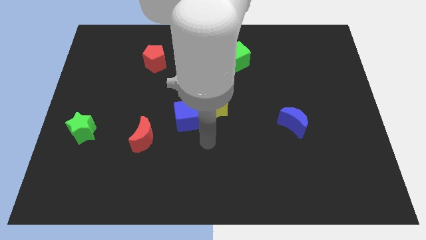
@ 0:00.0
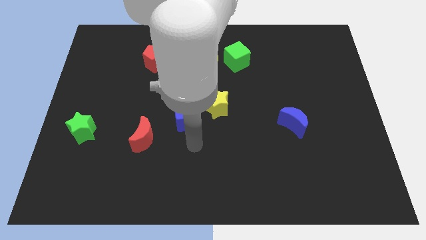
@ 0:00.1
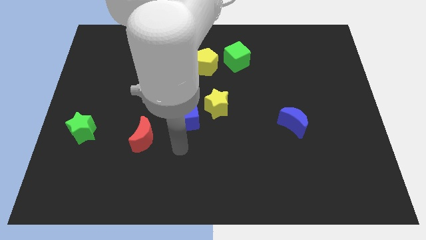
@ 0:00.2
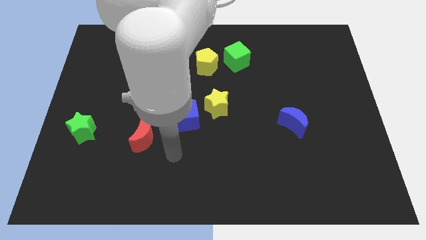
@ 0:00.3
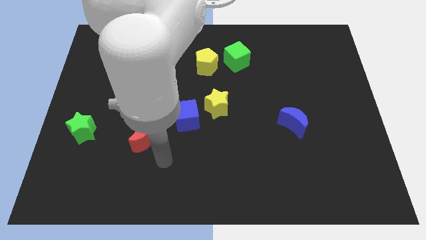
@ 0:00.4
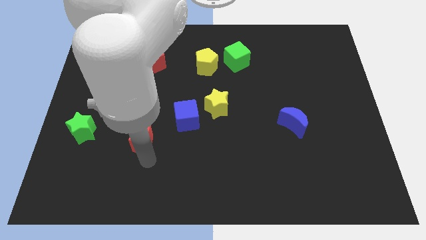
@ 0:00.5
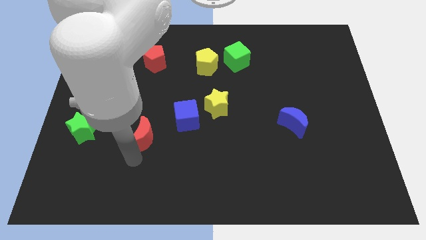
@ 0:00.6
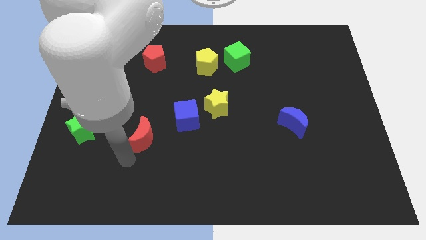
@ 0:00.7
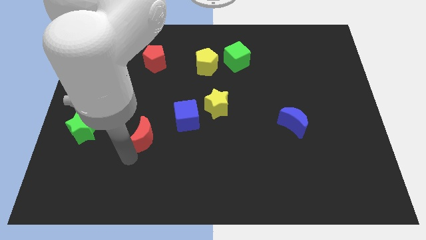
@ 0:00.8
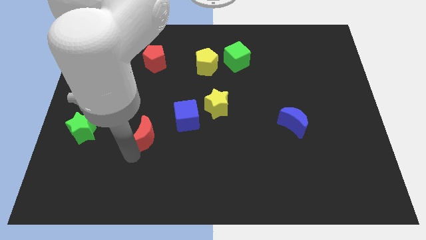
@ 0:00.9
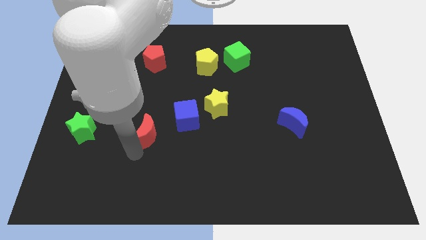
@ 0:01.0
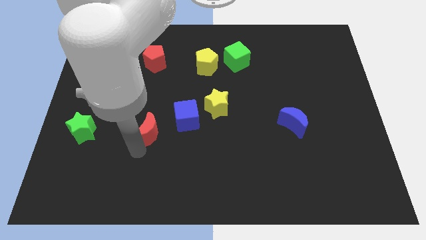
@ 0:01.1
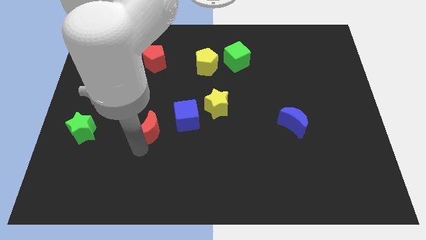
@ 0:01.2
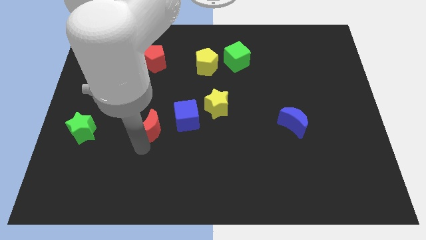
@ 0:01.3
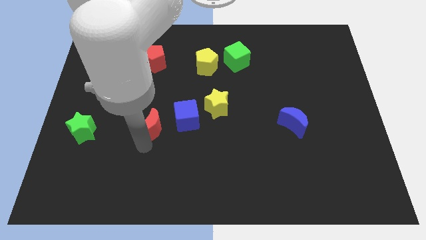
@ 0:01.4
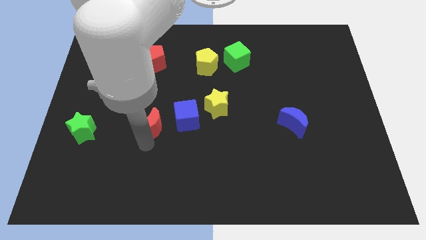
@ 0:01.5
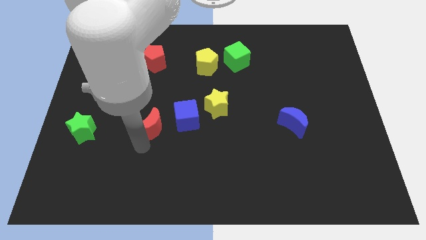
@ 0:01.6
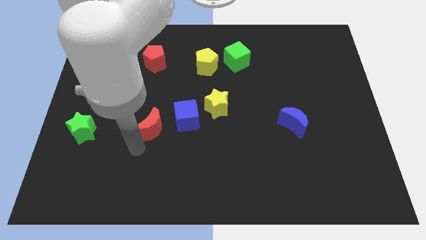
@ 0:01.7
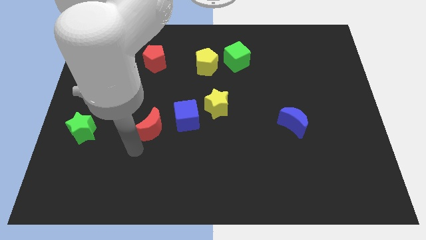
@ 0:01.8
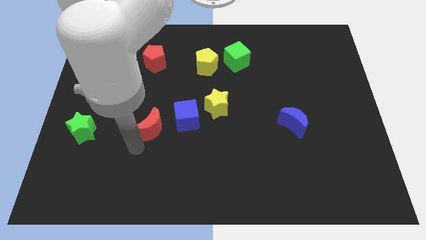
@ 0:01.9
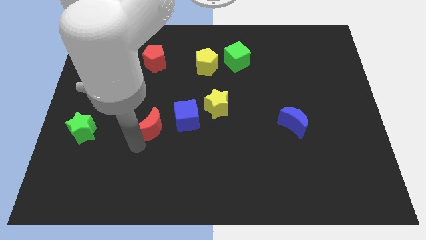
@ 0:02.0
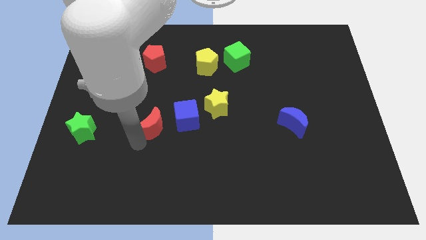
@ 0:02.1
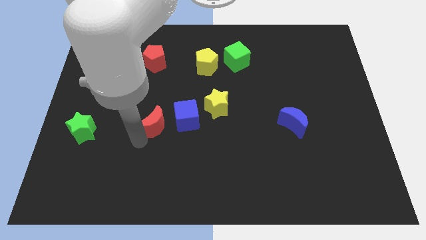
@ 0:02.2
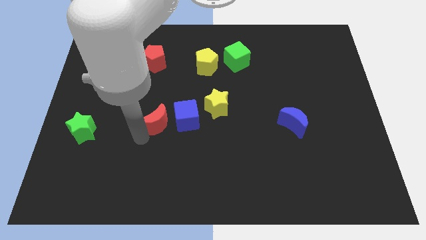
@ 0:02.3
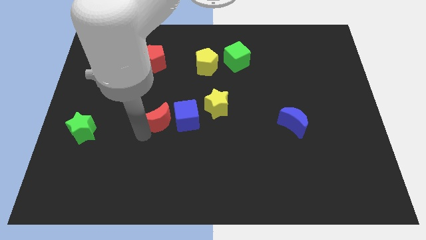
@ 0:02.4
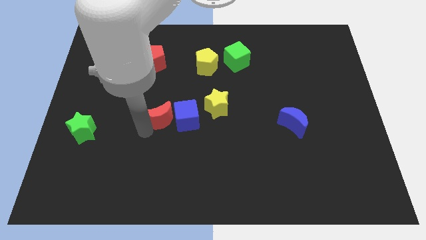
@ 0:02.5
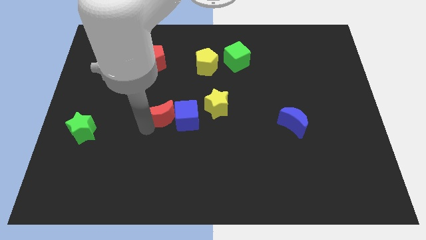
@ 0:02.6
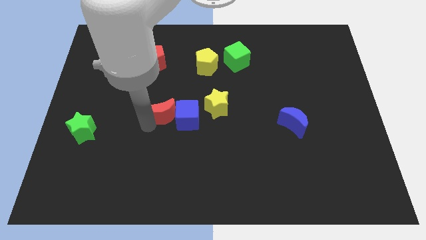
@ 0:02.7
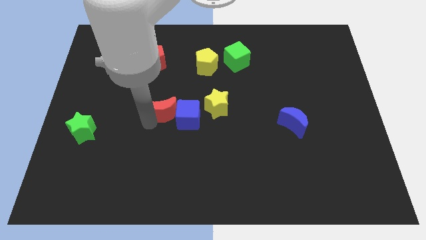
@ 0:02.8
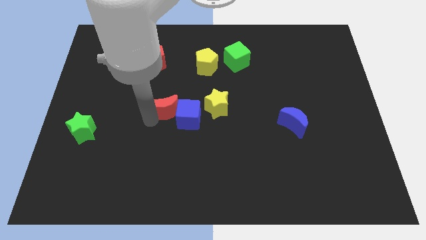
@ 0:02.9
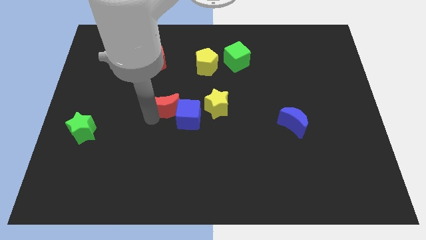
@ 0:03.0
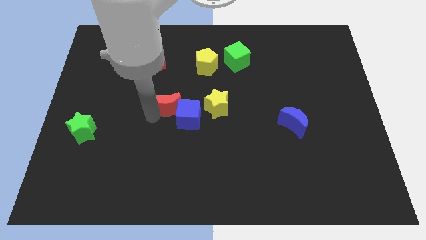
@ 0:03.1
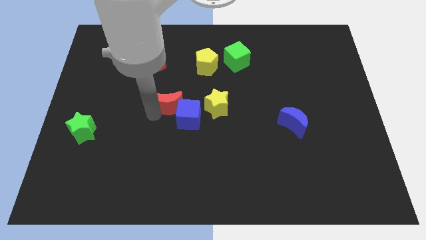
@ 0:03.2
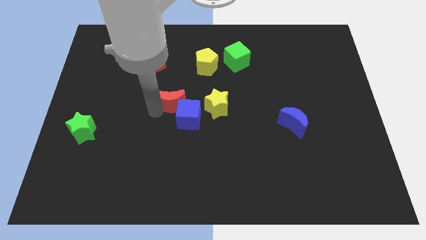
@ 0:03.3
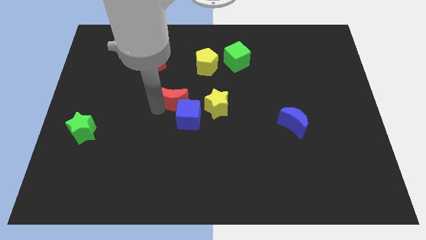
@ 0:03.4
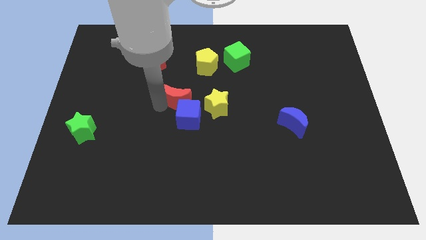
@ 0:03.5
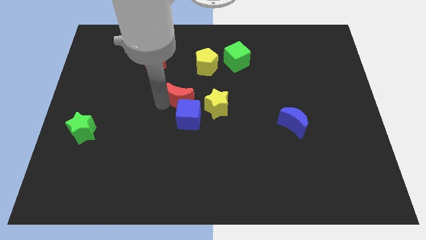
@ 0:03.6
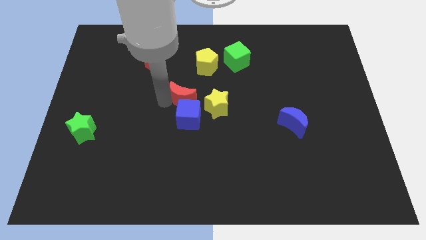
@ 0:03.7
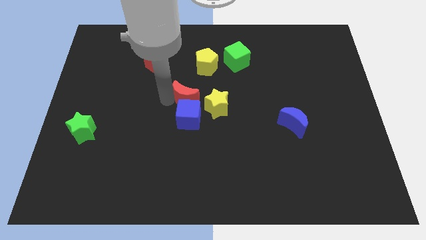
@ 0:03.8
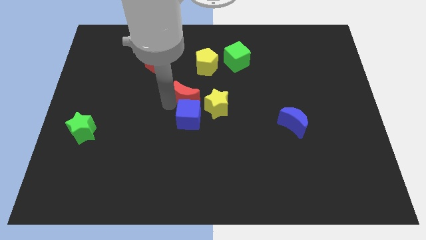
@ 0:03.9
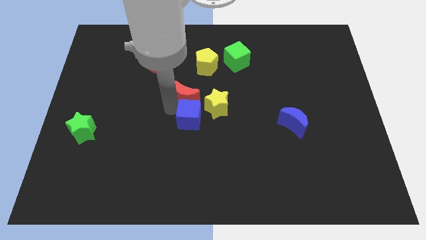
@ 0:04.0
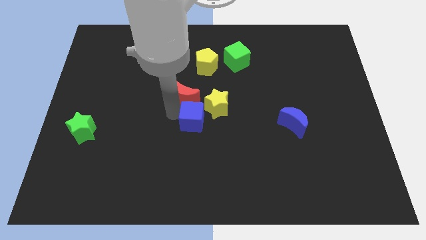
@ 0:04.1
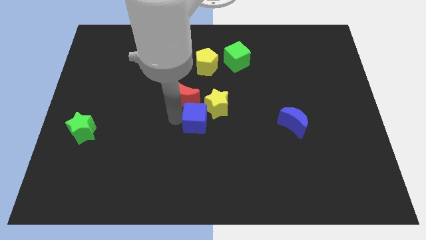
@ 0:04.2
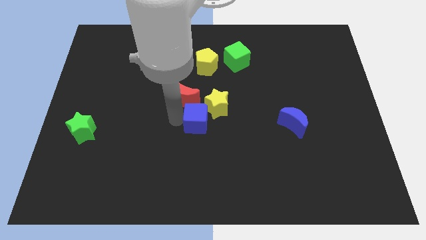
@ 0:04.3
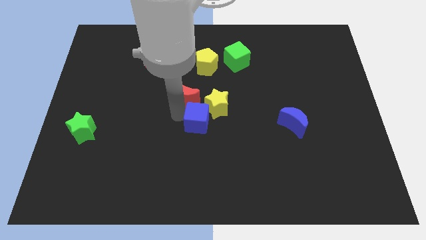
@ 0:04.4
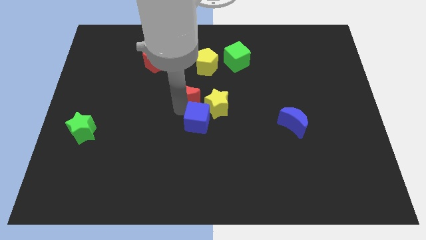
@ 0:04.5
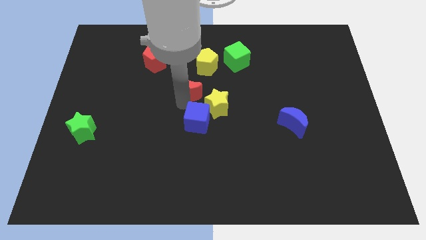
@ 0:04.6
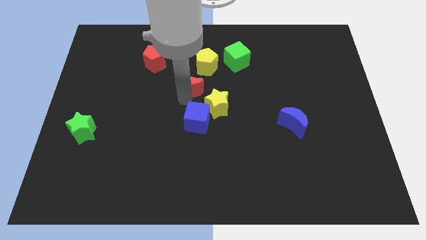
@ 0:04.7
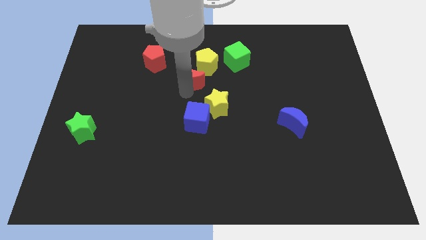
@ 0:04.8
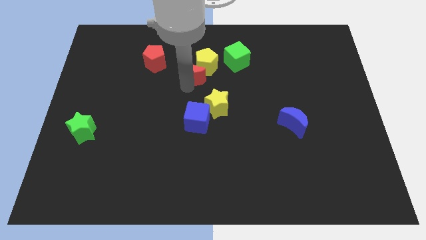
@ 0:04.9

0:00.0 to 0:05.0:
move the red moon close to the yellow pentagon

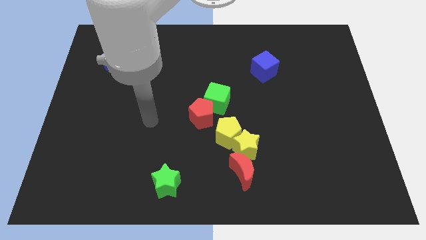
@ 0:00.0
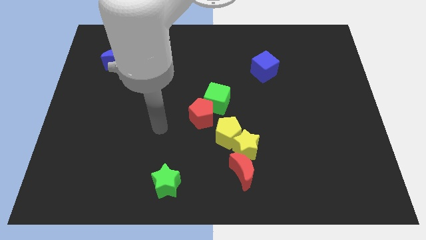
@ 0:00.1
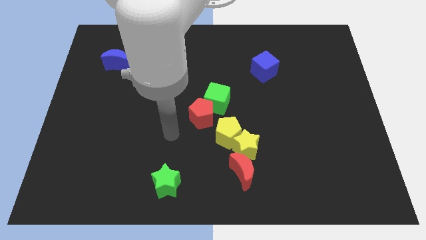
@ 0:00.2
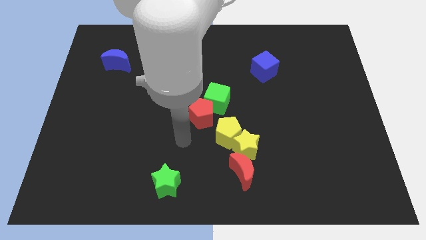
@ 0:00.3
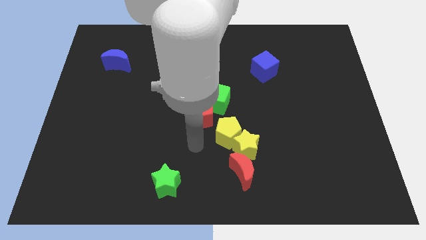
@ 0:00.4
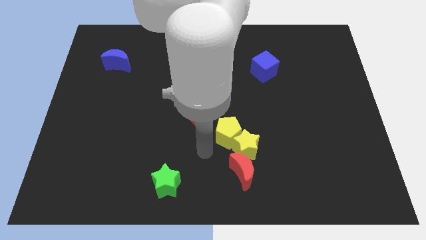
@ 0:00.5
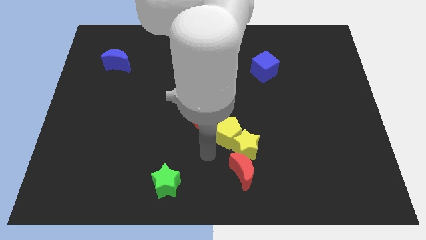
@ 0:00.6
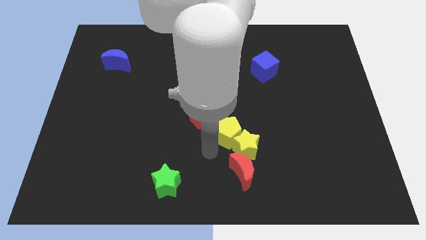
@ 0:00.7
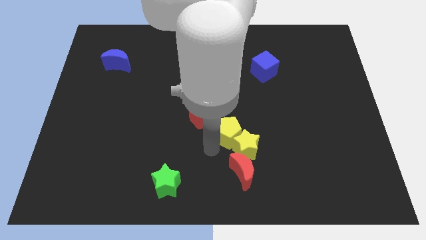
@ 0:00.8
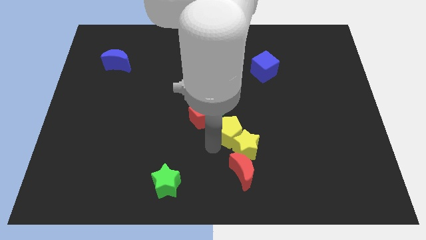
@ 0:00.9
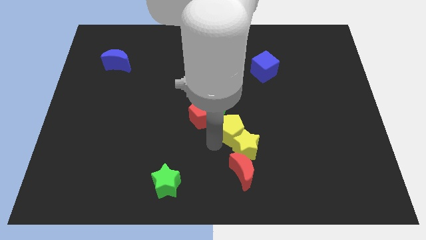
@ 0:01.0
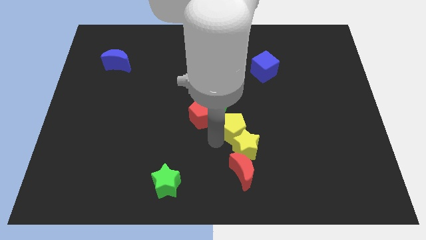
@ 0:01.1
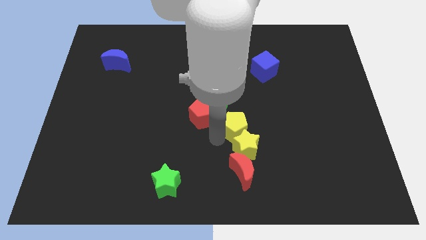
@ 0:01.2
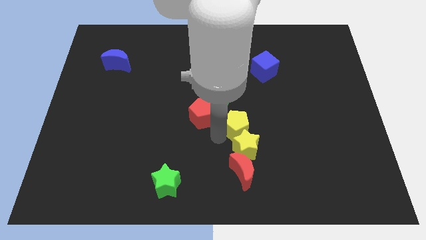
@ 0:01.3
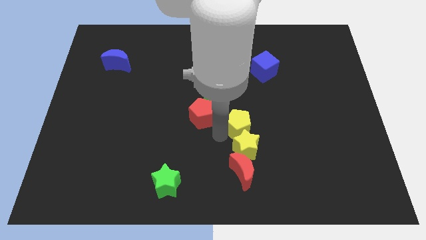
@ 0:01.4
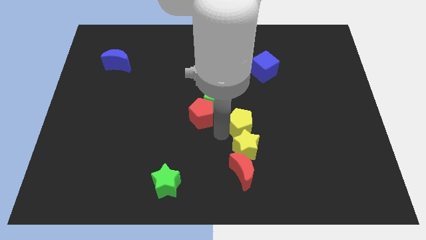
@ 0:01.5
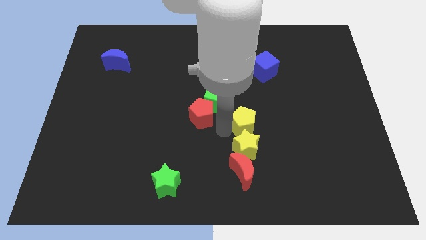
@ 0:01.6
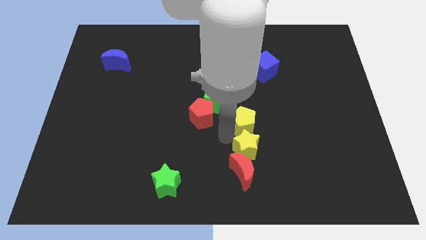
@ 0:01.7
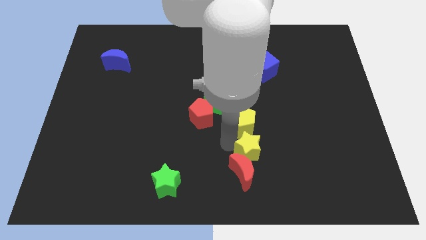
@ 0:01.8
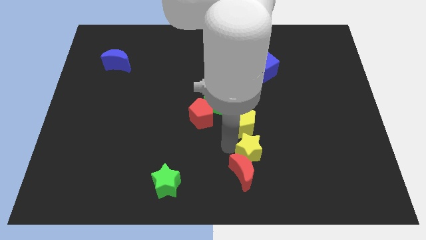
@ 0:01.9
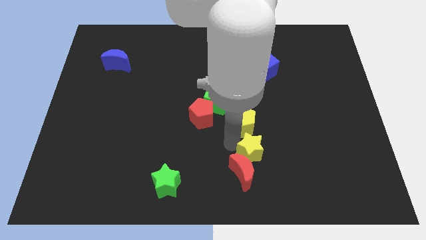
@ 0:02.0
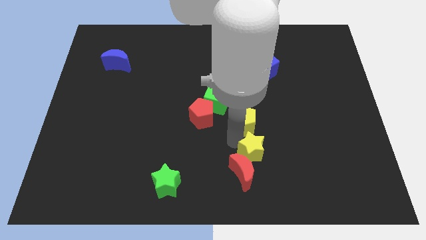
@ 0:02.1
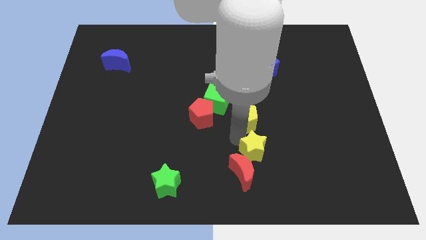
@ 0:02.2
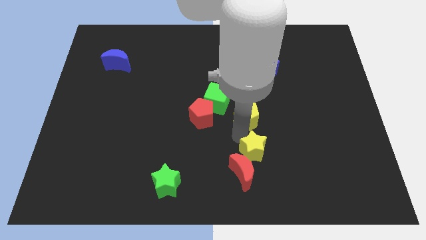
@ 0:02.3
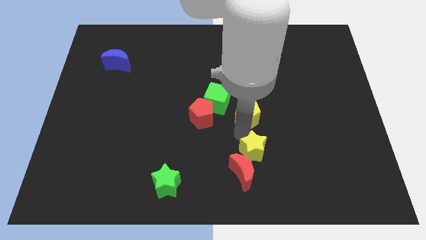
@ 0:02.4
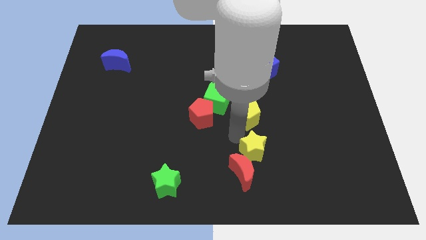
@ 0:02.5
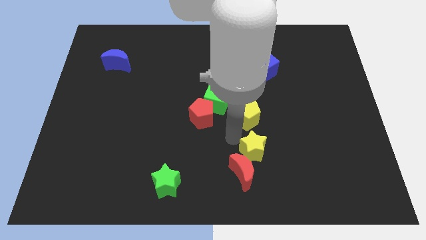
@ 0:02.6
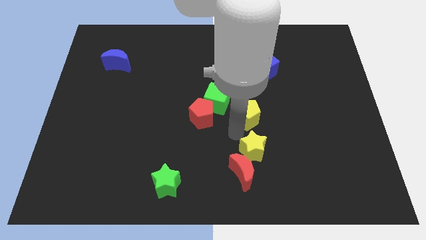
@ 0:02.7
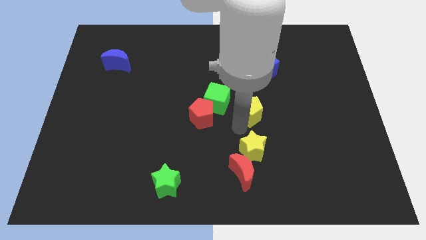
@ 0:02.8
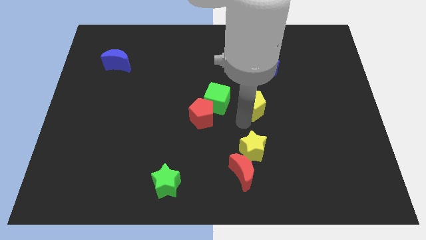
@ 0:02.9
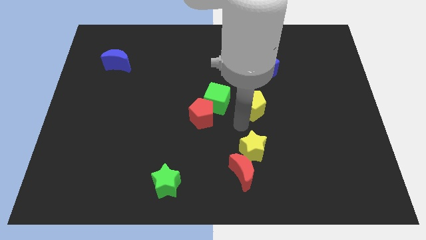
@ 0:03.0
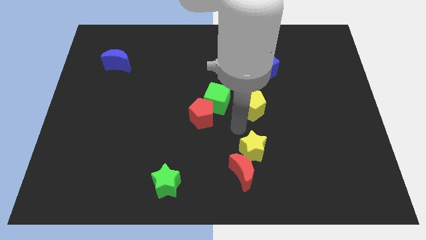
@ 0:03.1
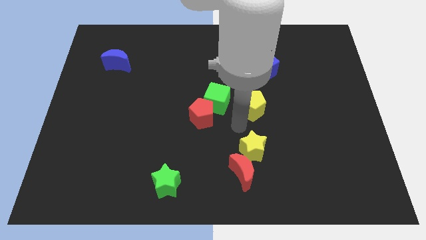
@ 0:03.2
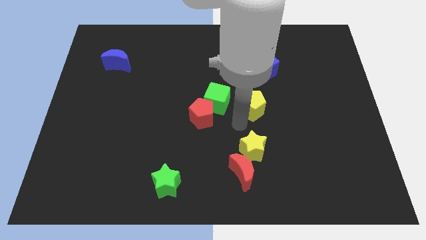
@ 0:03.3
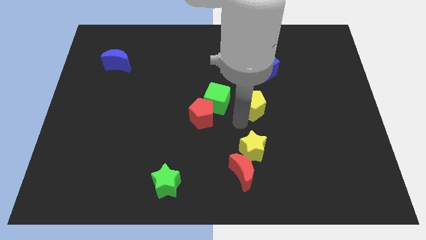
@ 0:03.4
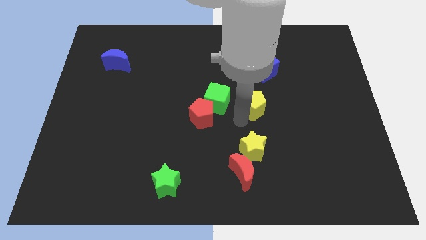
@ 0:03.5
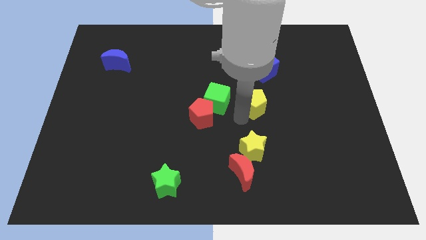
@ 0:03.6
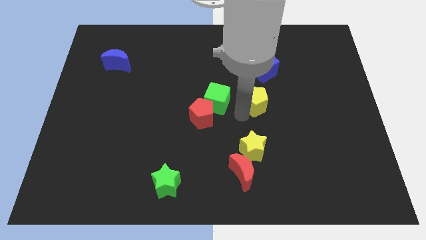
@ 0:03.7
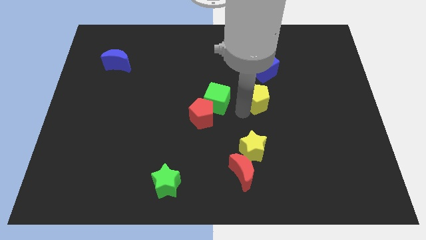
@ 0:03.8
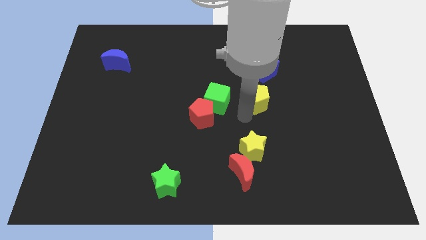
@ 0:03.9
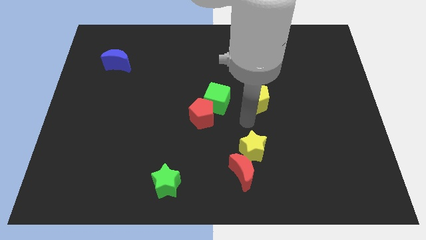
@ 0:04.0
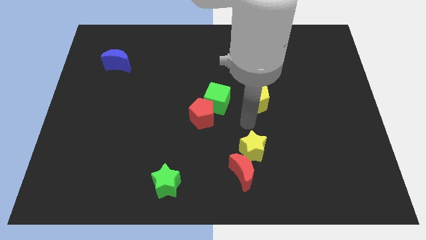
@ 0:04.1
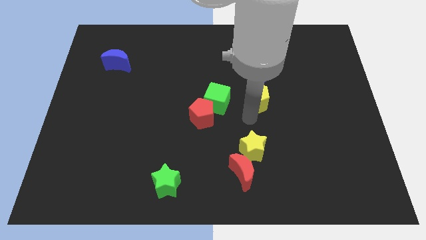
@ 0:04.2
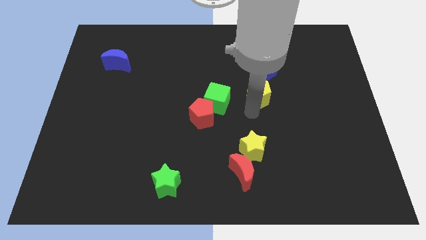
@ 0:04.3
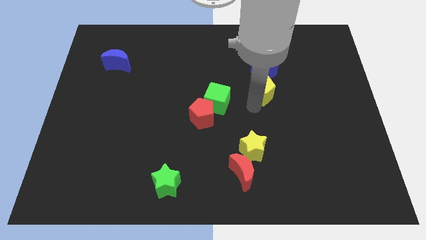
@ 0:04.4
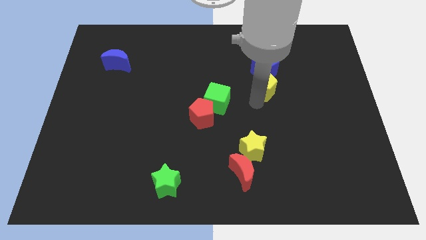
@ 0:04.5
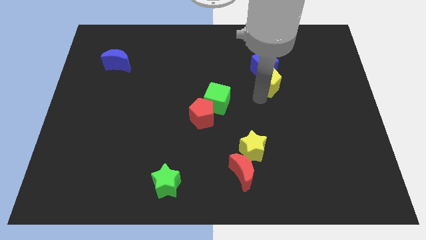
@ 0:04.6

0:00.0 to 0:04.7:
put the yellow pentagon next to the blue cube
